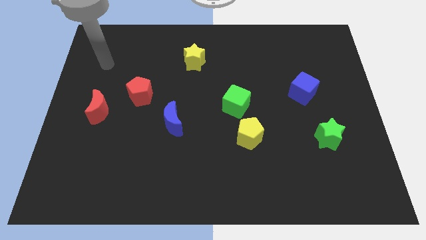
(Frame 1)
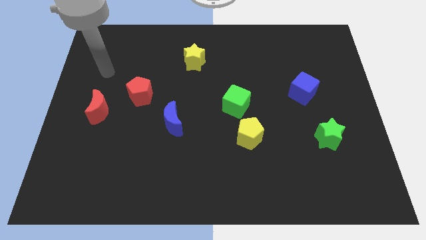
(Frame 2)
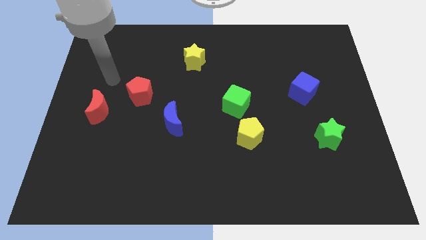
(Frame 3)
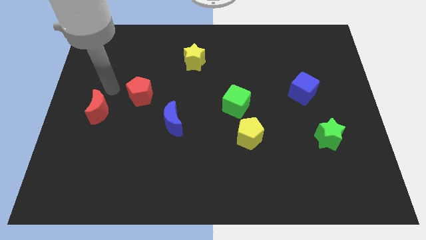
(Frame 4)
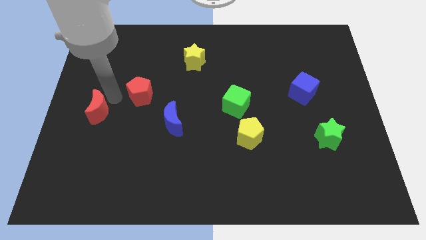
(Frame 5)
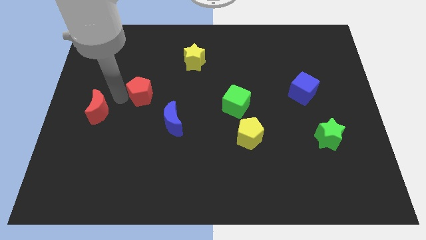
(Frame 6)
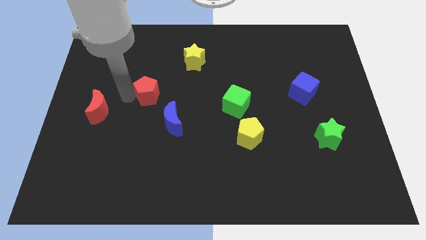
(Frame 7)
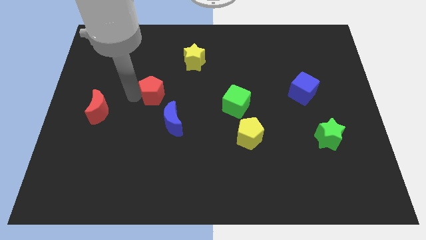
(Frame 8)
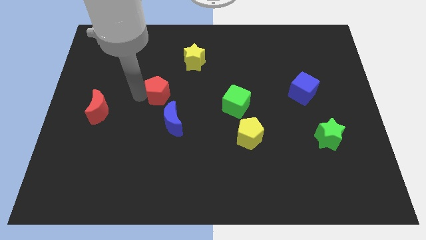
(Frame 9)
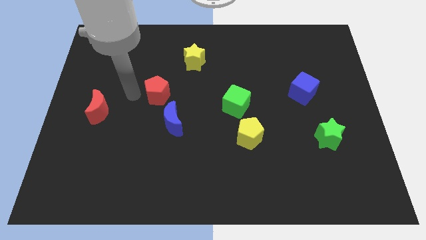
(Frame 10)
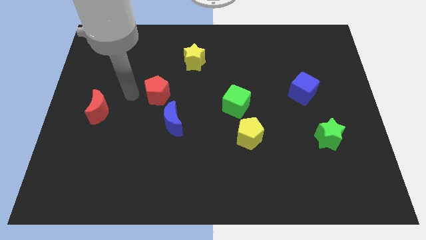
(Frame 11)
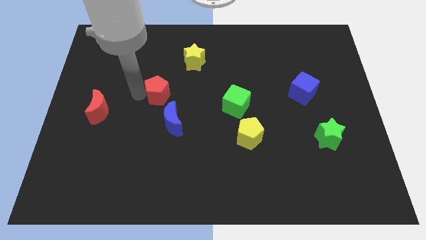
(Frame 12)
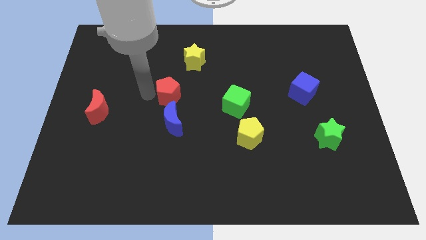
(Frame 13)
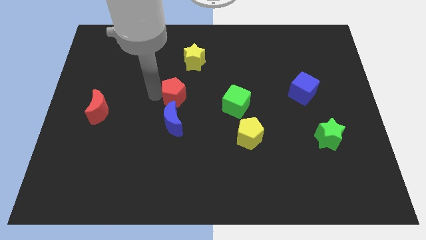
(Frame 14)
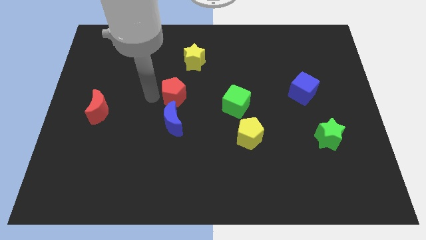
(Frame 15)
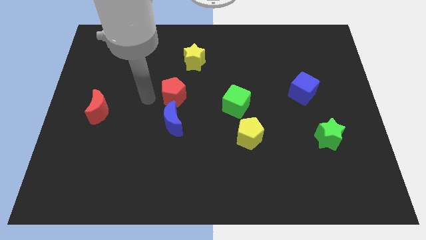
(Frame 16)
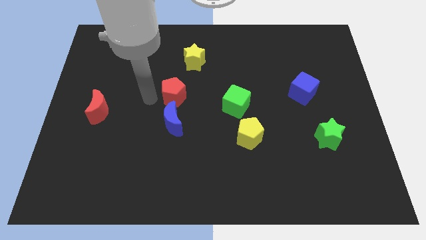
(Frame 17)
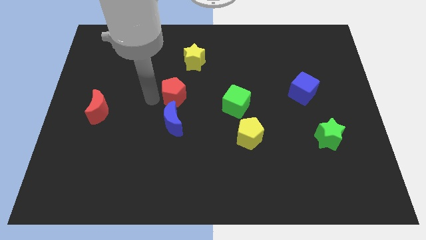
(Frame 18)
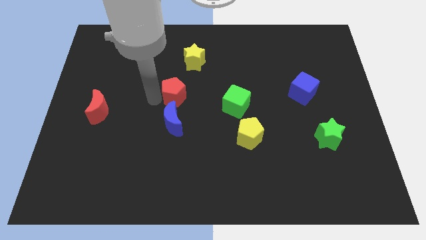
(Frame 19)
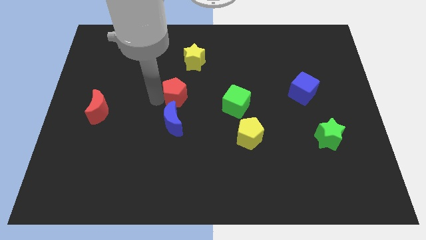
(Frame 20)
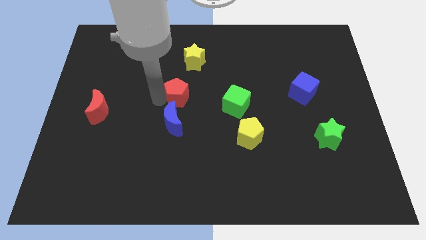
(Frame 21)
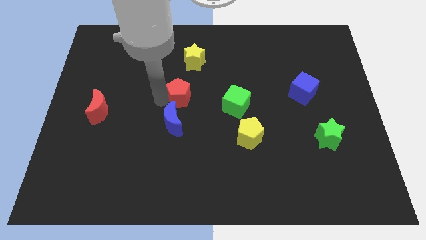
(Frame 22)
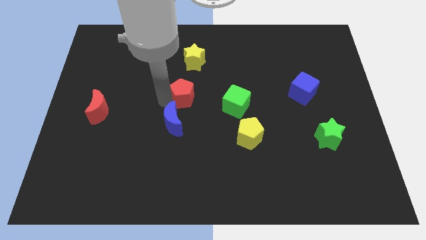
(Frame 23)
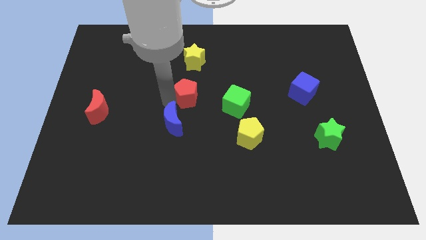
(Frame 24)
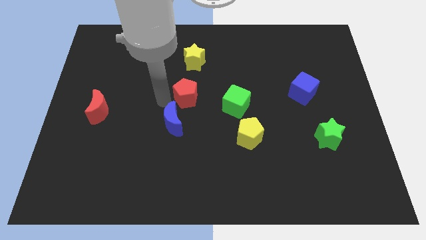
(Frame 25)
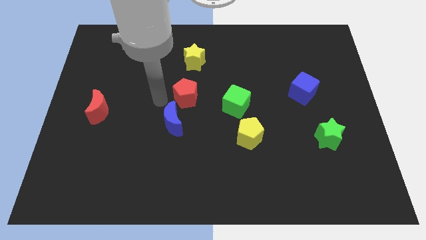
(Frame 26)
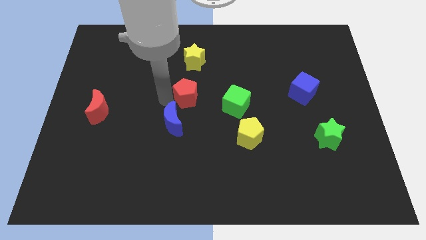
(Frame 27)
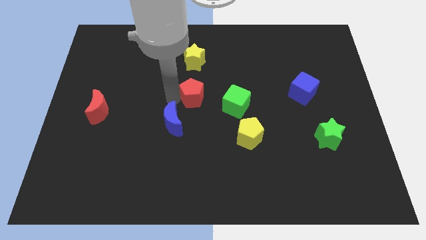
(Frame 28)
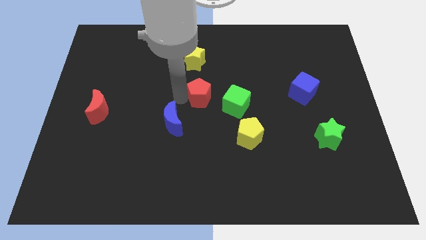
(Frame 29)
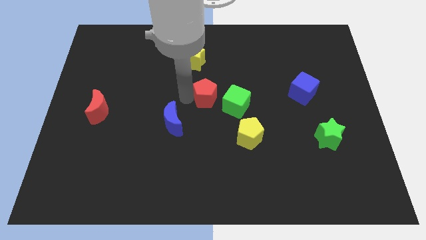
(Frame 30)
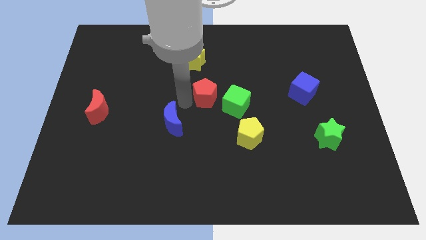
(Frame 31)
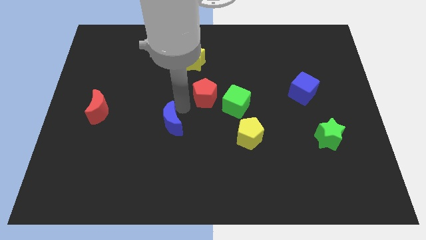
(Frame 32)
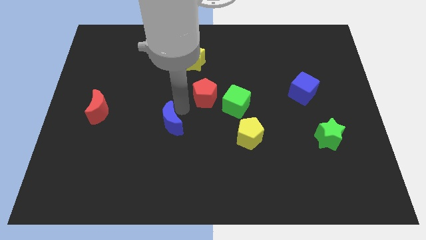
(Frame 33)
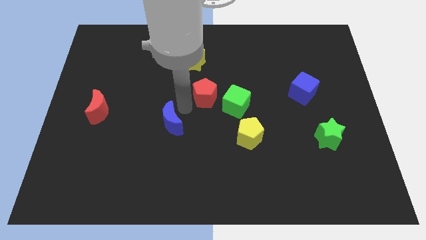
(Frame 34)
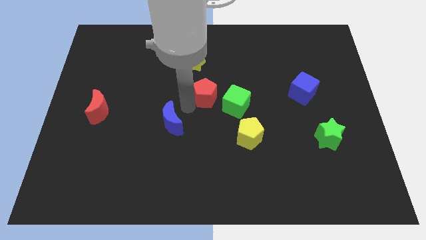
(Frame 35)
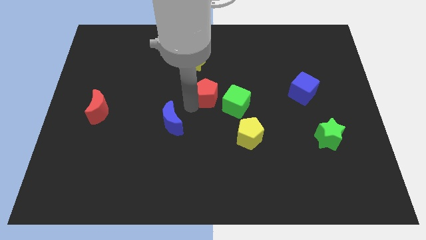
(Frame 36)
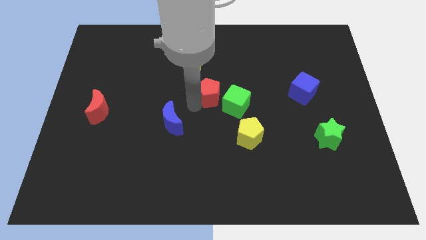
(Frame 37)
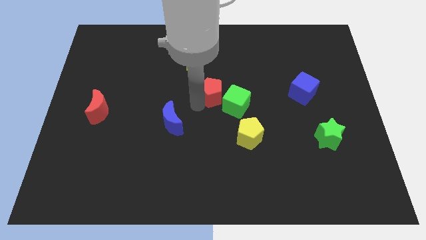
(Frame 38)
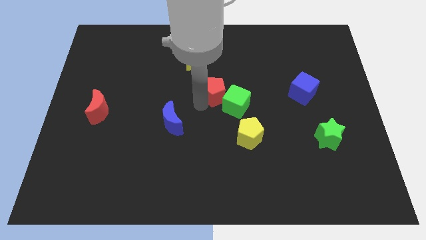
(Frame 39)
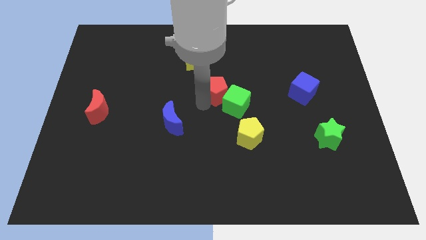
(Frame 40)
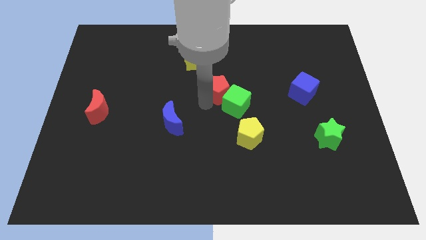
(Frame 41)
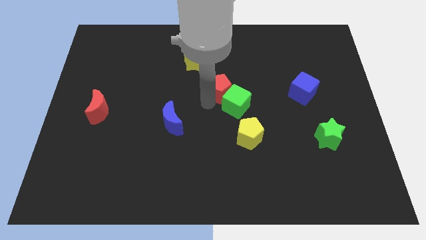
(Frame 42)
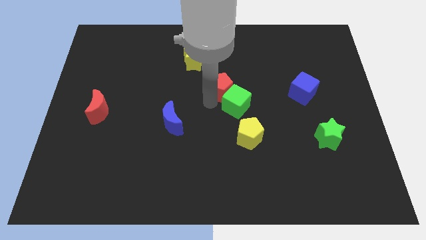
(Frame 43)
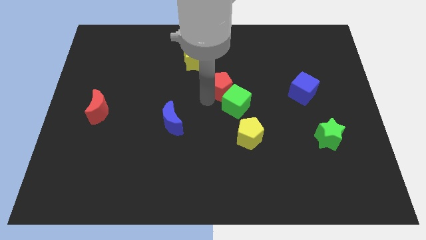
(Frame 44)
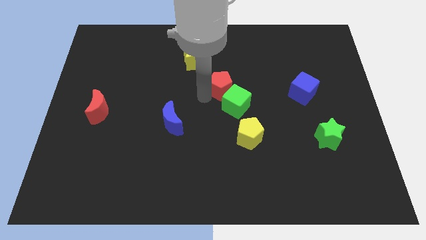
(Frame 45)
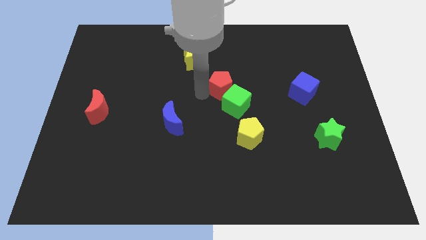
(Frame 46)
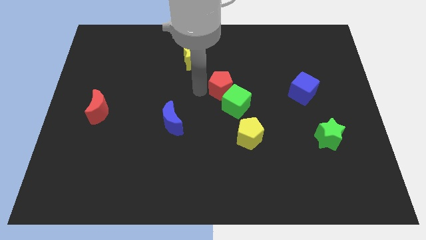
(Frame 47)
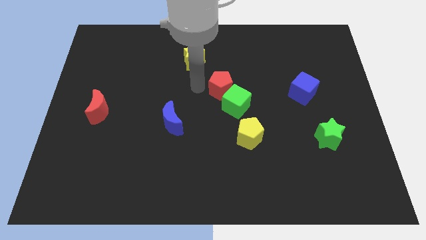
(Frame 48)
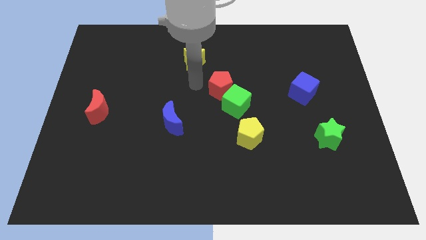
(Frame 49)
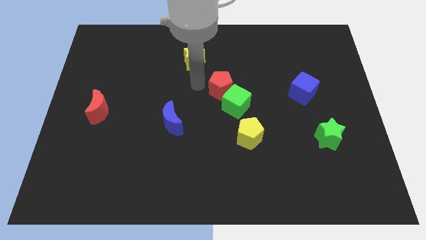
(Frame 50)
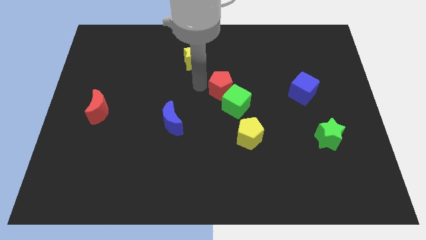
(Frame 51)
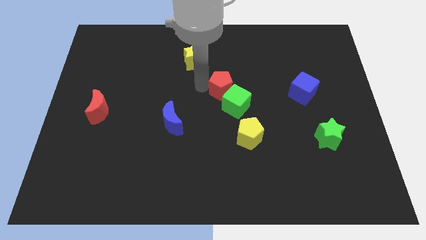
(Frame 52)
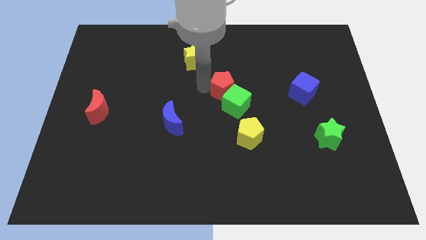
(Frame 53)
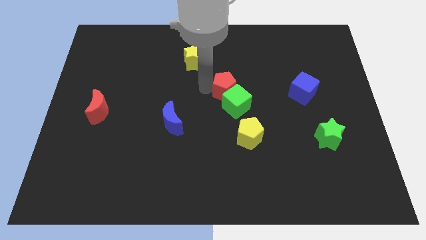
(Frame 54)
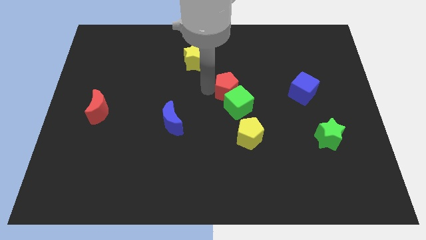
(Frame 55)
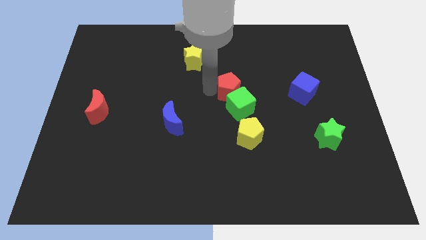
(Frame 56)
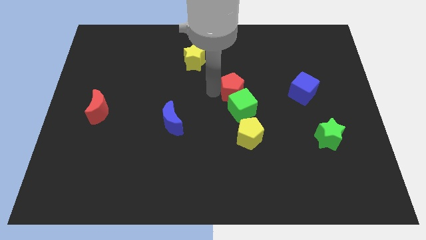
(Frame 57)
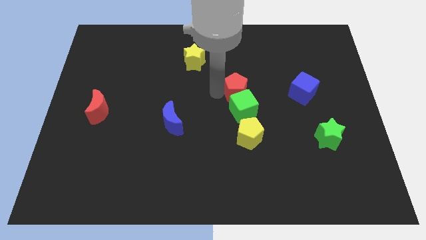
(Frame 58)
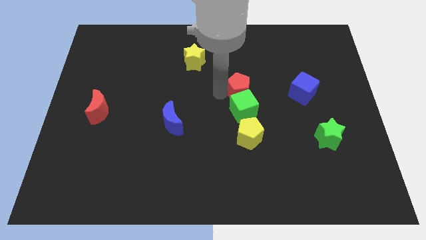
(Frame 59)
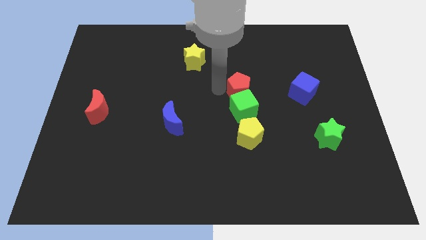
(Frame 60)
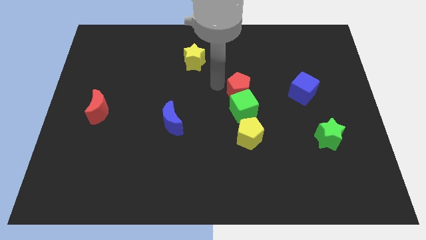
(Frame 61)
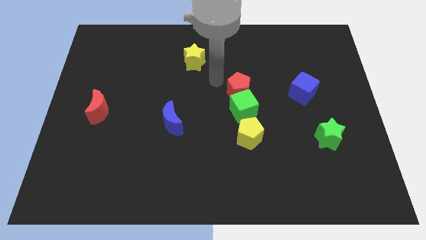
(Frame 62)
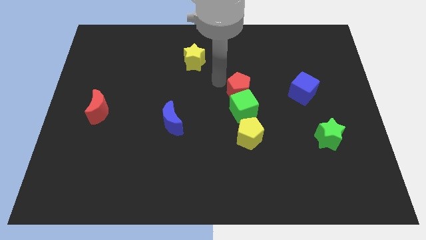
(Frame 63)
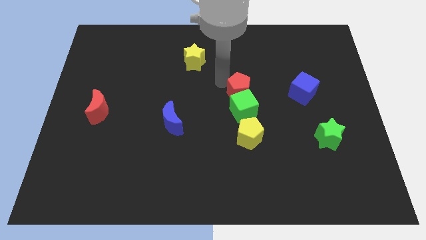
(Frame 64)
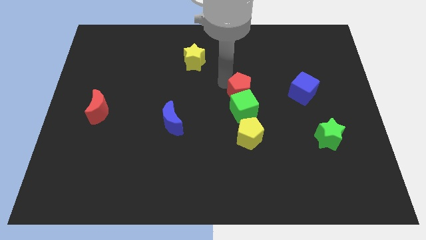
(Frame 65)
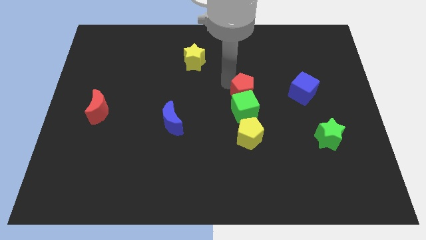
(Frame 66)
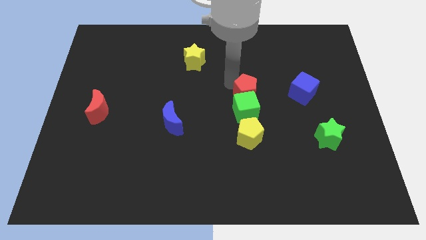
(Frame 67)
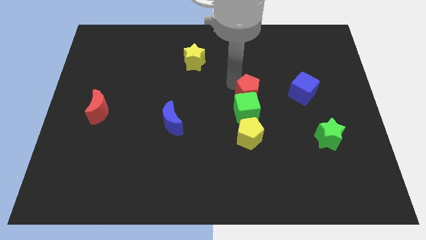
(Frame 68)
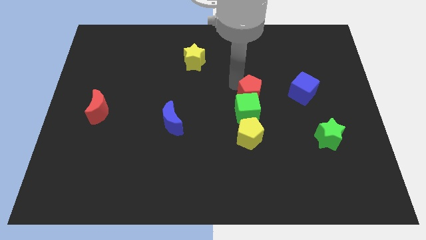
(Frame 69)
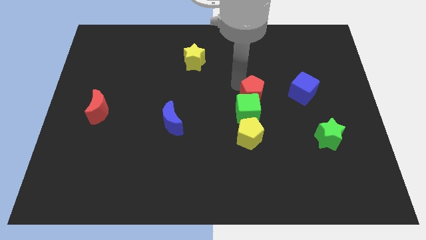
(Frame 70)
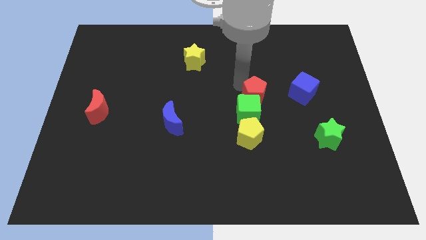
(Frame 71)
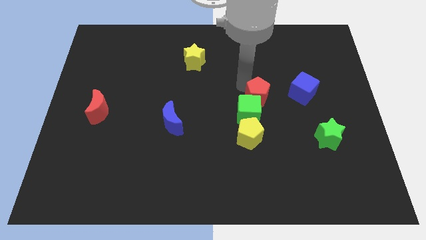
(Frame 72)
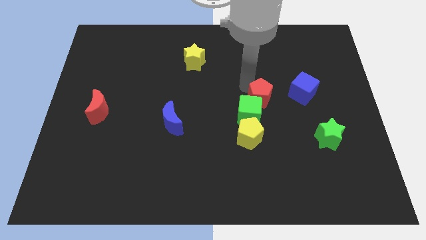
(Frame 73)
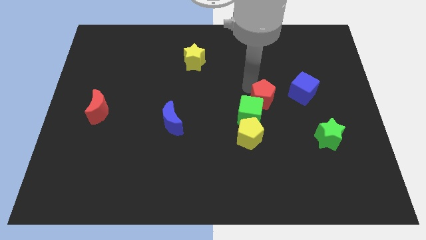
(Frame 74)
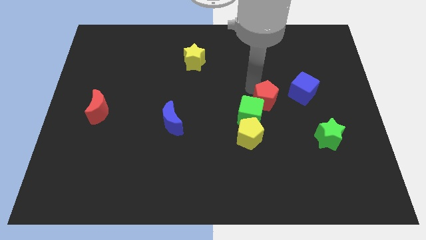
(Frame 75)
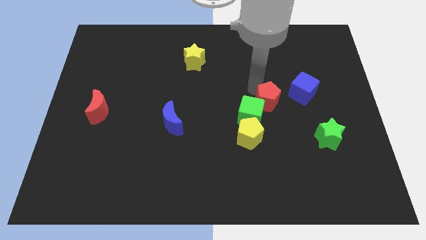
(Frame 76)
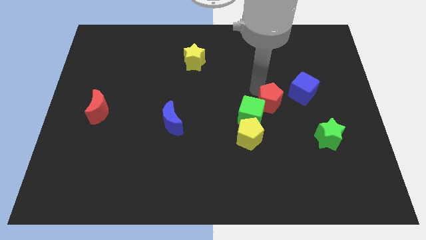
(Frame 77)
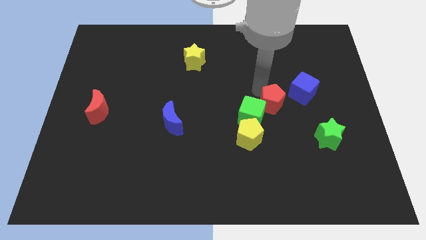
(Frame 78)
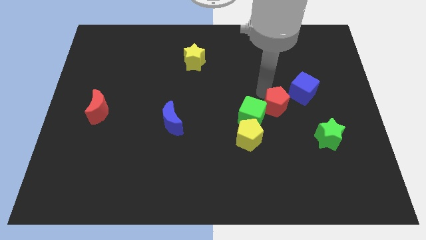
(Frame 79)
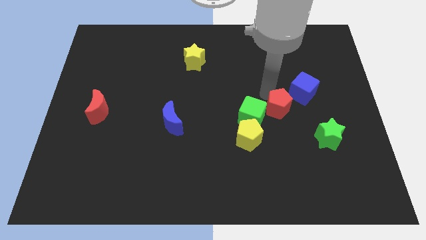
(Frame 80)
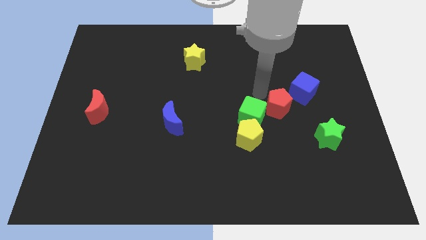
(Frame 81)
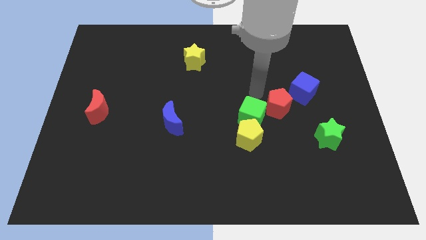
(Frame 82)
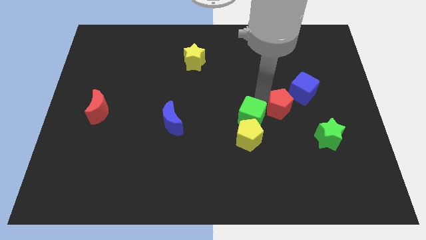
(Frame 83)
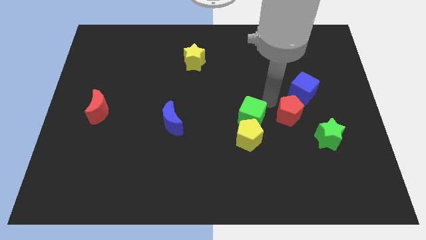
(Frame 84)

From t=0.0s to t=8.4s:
push the red pentagon to the bottom side of the blue cube
